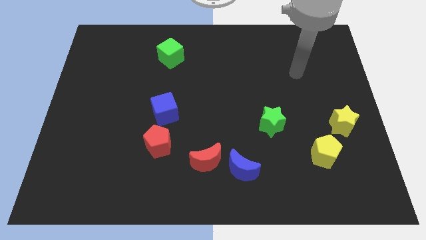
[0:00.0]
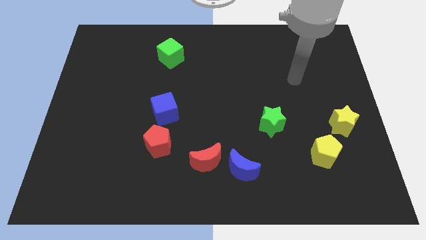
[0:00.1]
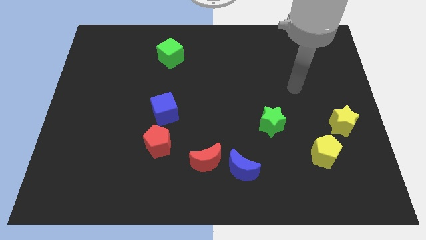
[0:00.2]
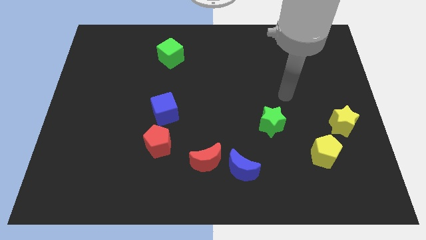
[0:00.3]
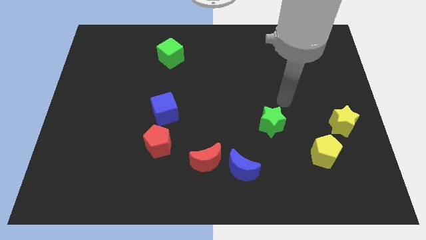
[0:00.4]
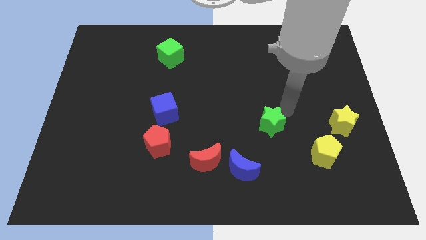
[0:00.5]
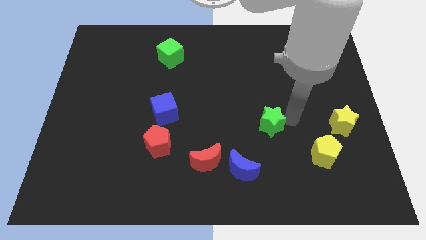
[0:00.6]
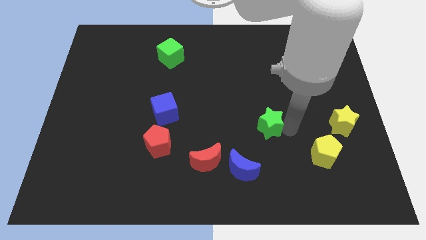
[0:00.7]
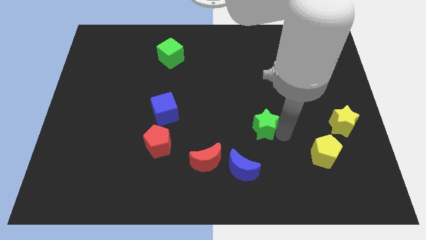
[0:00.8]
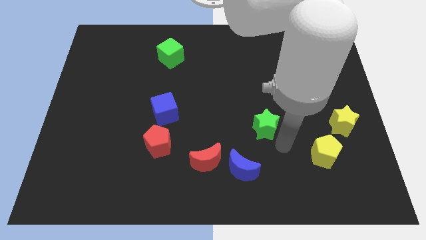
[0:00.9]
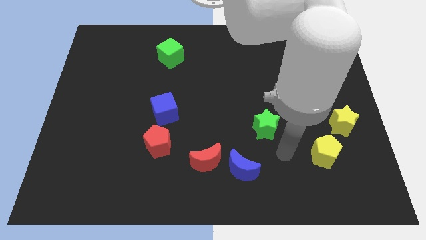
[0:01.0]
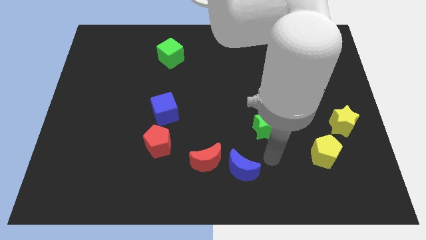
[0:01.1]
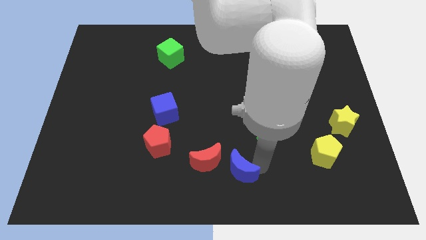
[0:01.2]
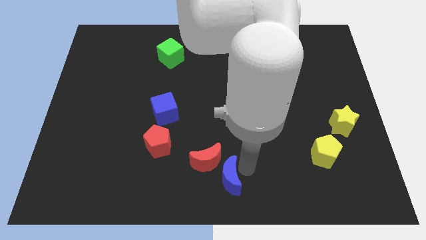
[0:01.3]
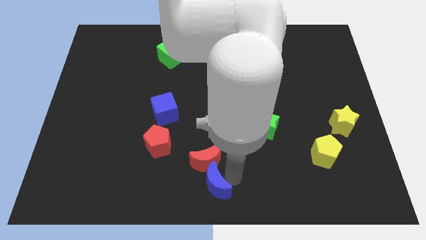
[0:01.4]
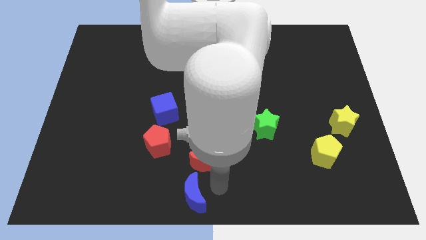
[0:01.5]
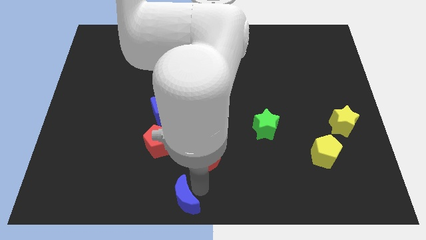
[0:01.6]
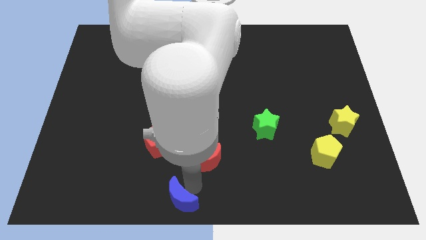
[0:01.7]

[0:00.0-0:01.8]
pull the red moon apart from the blue moon

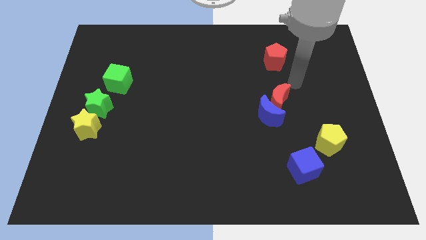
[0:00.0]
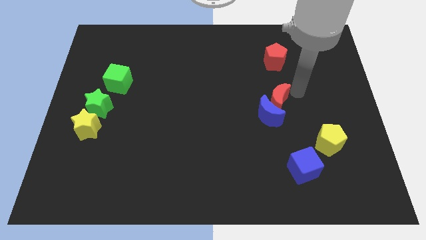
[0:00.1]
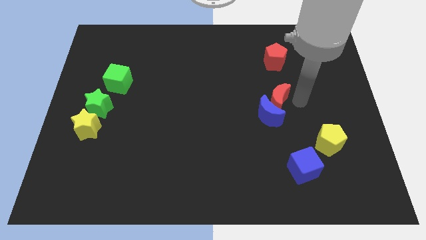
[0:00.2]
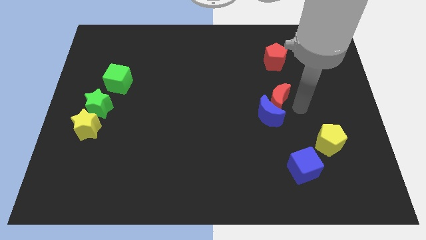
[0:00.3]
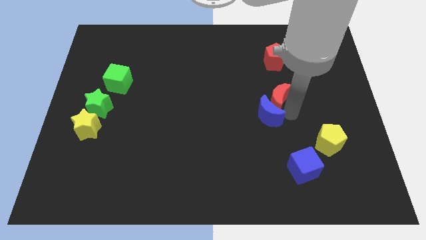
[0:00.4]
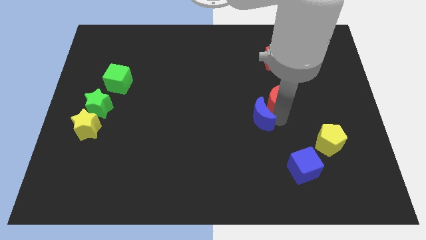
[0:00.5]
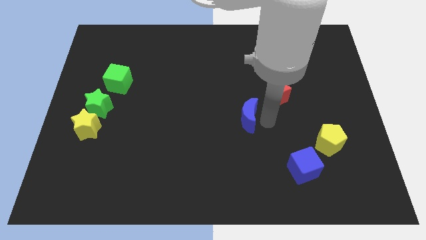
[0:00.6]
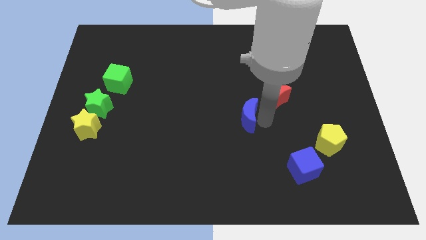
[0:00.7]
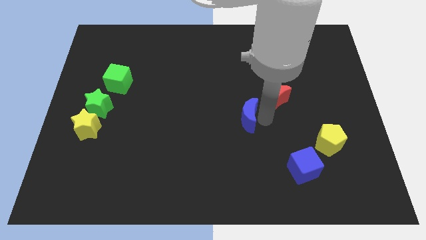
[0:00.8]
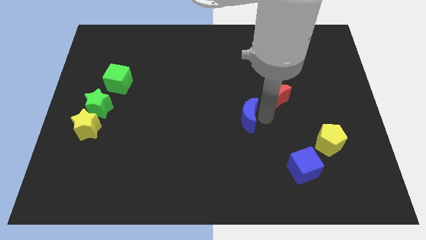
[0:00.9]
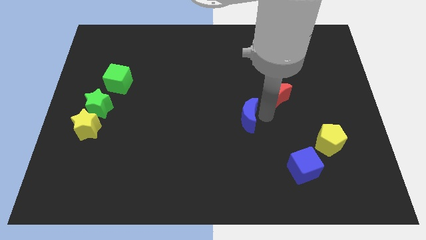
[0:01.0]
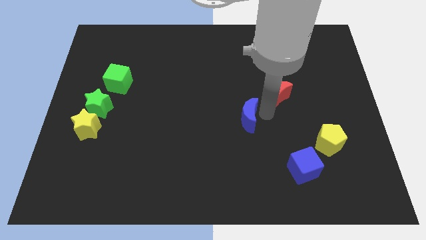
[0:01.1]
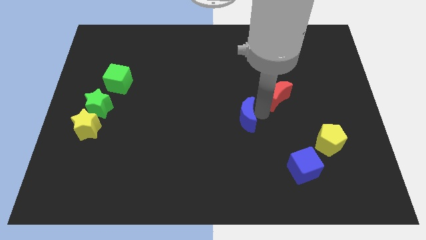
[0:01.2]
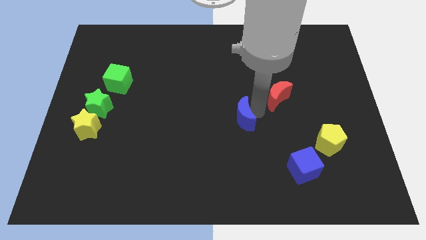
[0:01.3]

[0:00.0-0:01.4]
move the red moon away from the blue moon

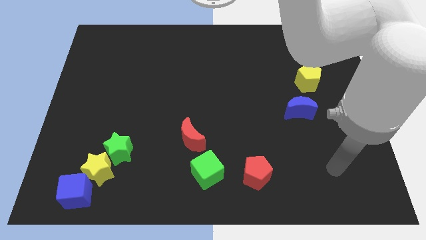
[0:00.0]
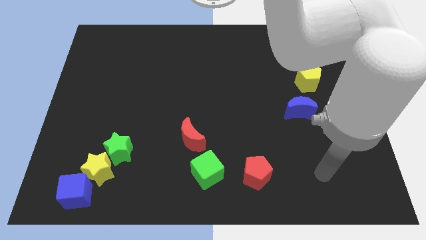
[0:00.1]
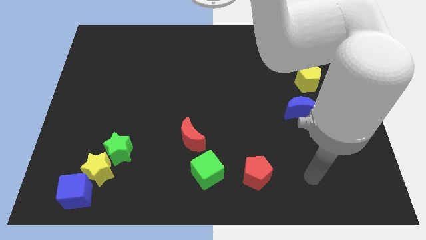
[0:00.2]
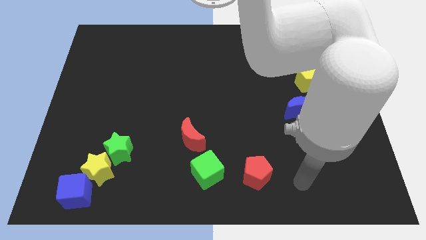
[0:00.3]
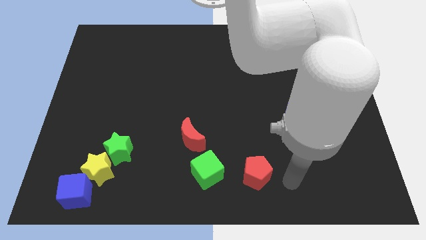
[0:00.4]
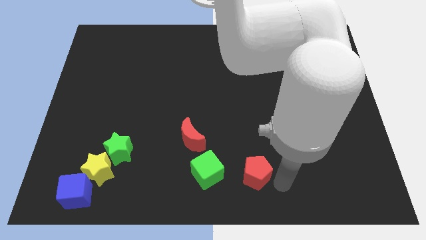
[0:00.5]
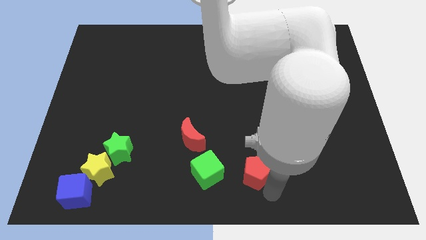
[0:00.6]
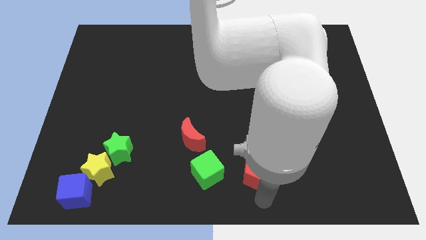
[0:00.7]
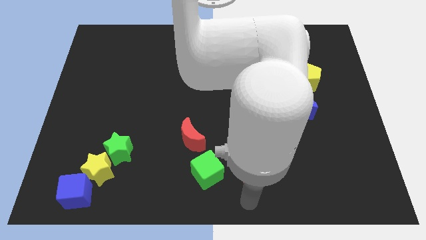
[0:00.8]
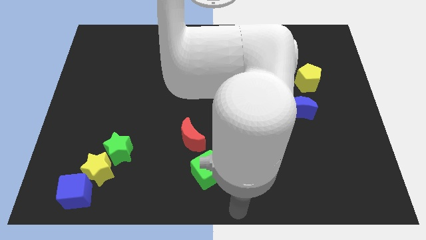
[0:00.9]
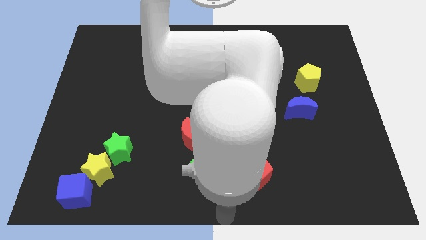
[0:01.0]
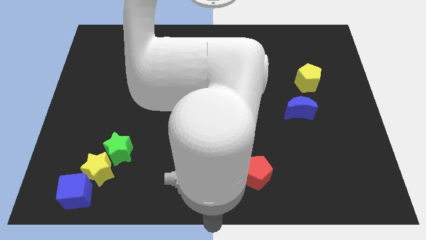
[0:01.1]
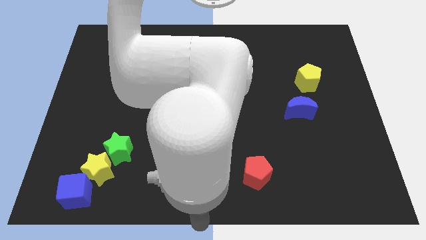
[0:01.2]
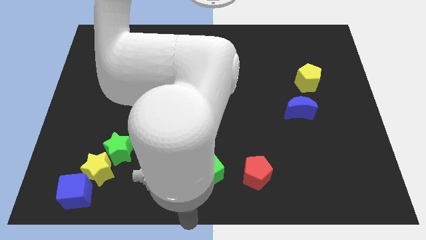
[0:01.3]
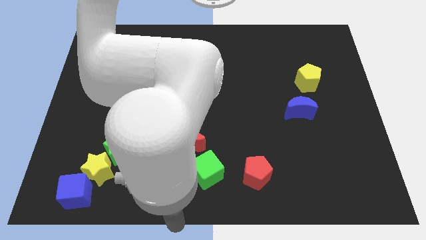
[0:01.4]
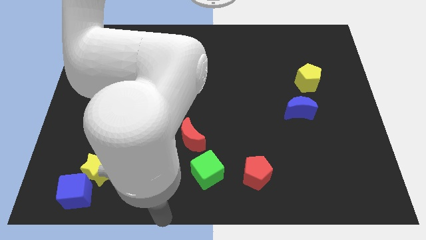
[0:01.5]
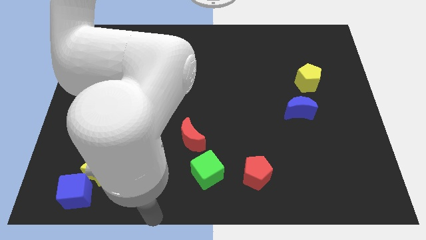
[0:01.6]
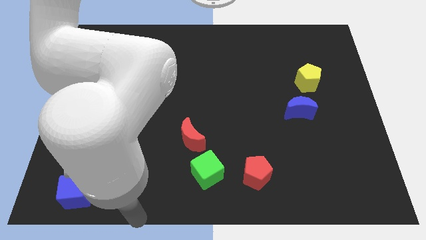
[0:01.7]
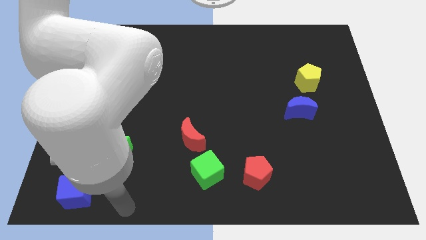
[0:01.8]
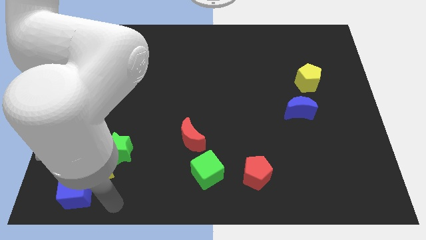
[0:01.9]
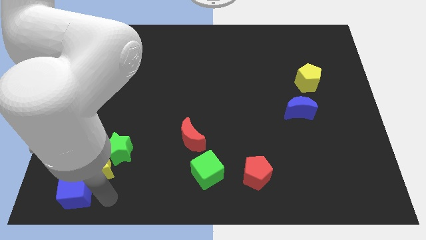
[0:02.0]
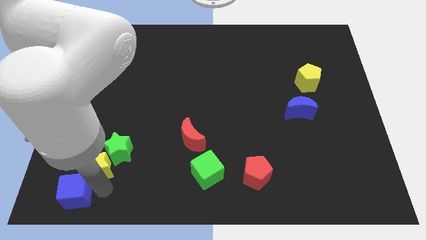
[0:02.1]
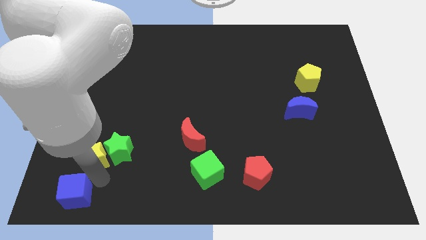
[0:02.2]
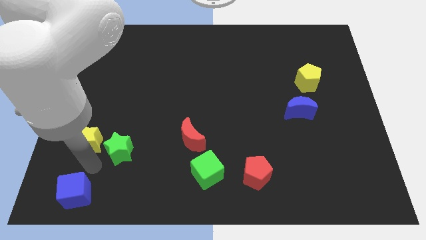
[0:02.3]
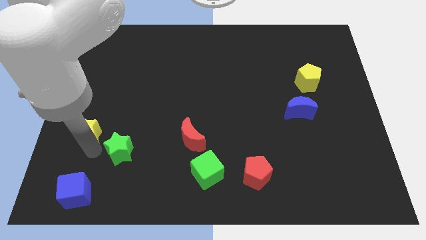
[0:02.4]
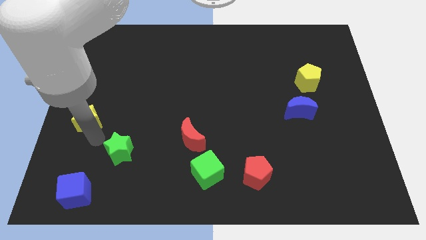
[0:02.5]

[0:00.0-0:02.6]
pull the green star apart from the yellow star

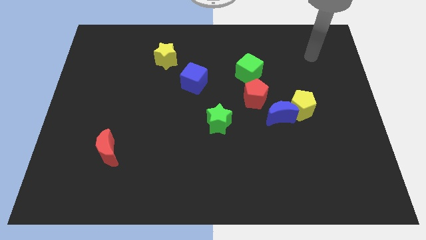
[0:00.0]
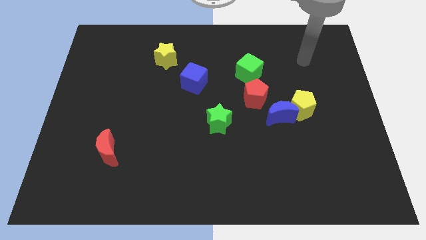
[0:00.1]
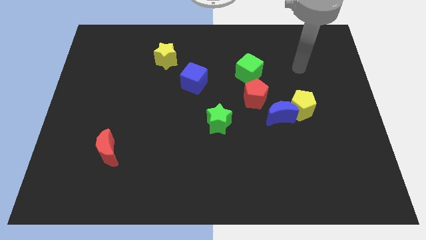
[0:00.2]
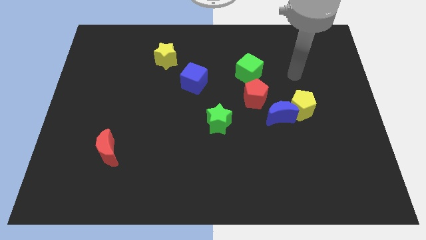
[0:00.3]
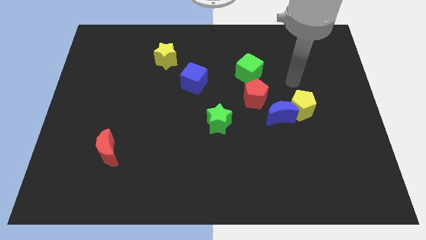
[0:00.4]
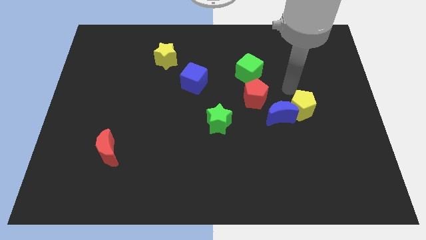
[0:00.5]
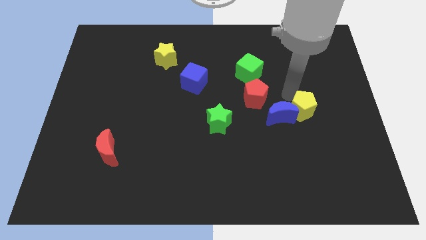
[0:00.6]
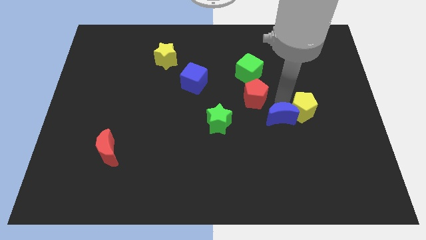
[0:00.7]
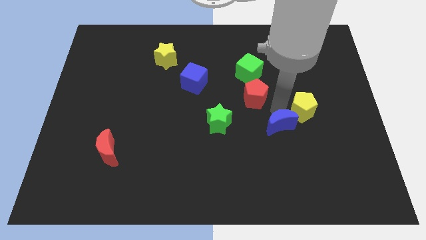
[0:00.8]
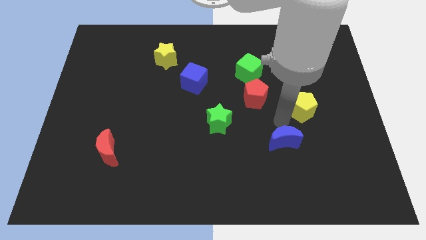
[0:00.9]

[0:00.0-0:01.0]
pull the yellow pentagon apart from the blue moon

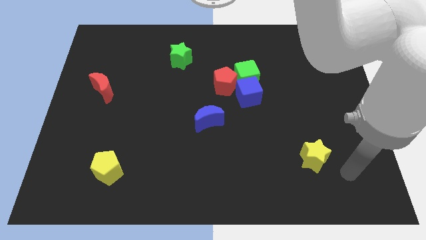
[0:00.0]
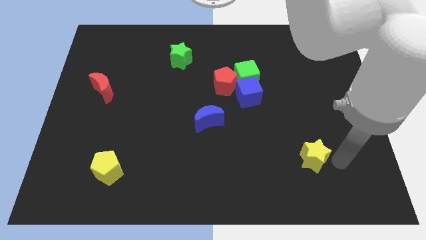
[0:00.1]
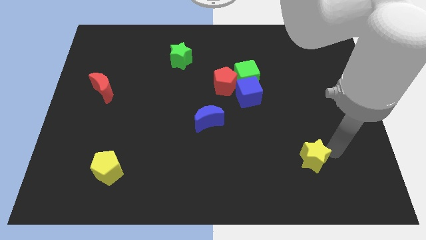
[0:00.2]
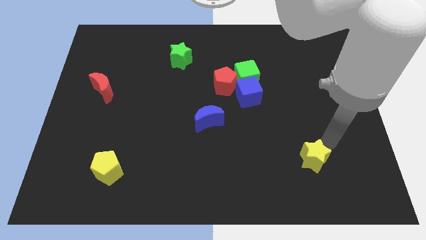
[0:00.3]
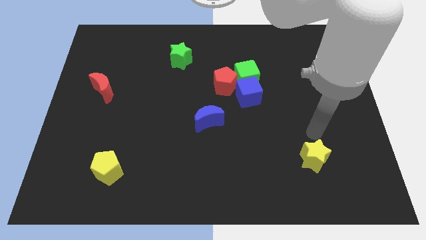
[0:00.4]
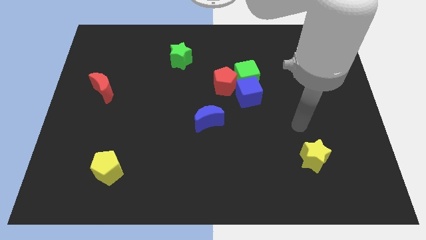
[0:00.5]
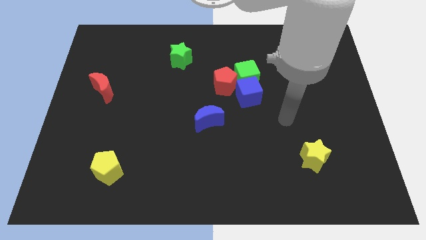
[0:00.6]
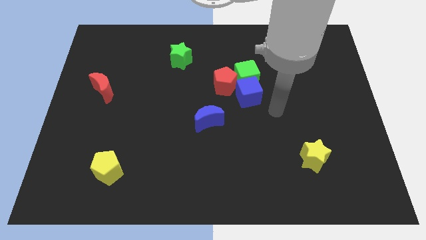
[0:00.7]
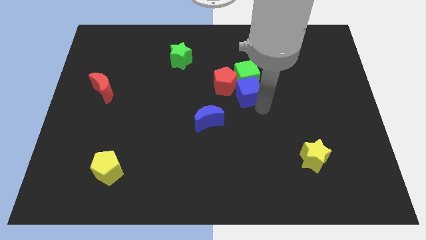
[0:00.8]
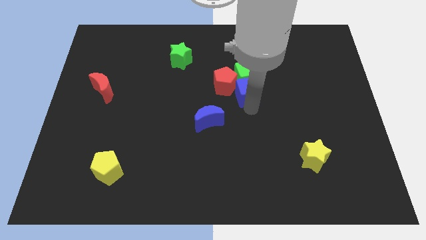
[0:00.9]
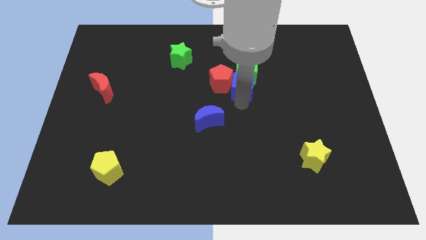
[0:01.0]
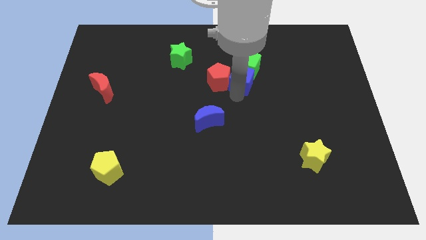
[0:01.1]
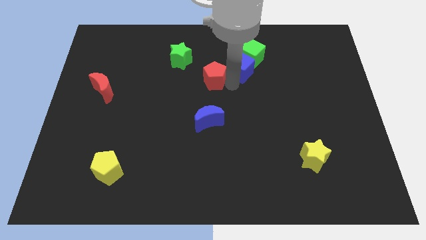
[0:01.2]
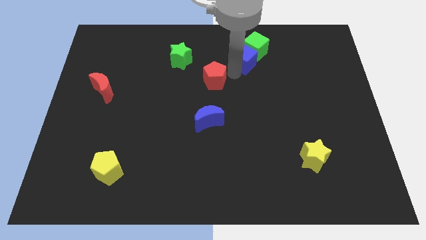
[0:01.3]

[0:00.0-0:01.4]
move the green cube away from the blue cube and red pentagon

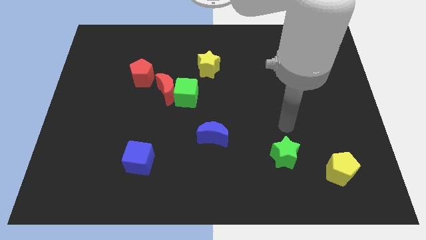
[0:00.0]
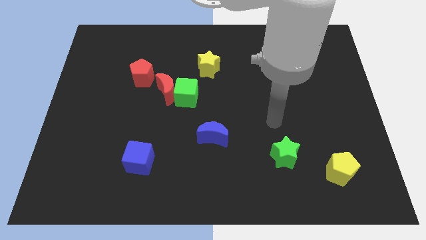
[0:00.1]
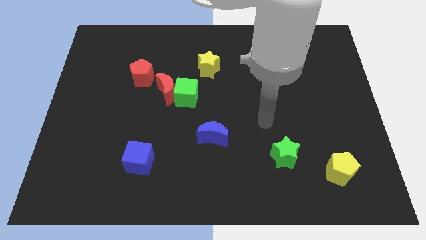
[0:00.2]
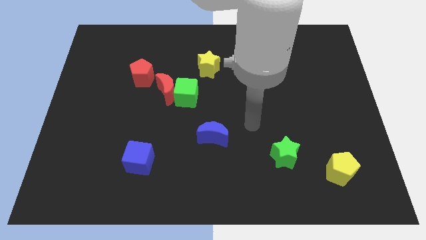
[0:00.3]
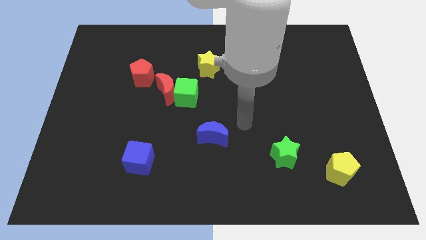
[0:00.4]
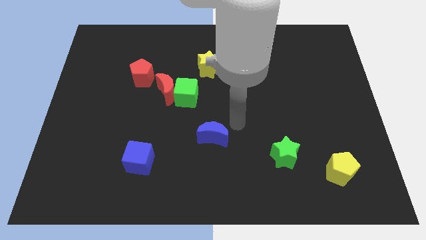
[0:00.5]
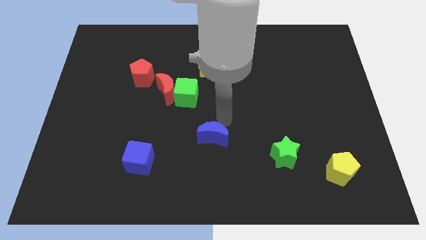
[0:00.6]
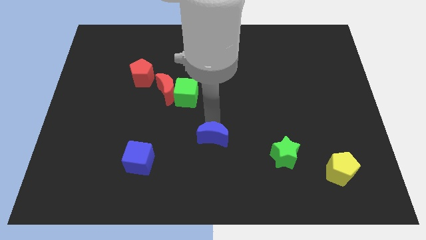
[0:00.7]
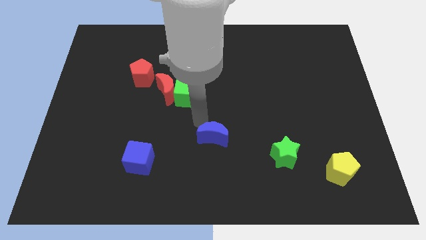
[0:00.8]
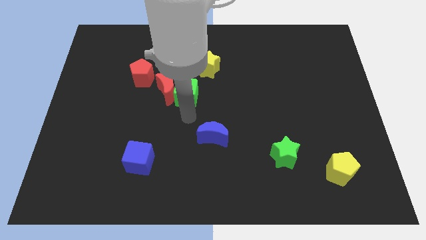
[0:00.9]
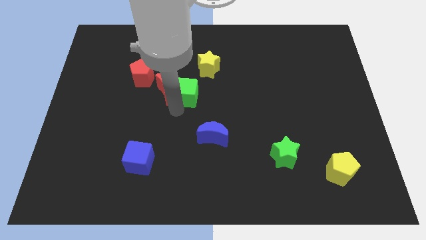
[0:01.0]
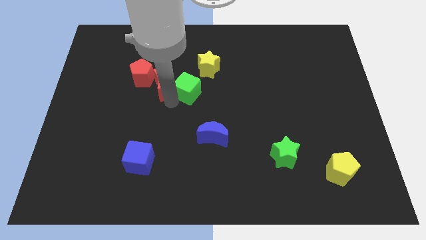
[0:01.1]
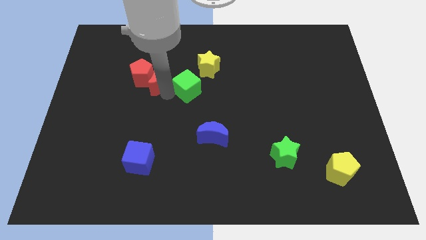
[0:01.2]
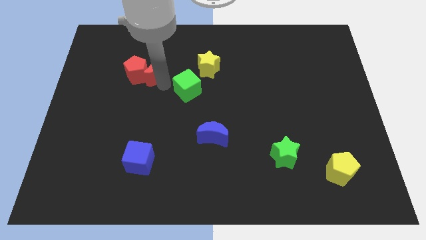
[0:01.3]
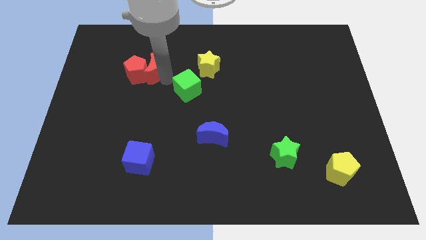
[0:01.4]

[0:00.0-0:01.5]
separate the green cube from the red moon
